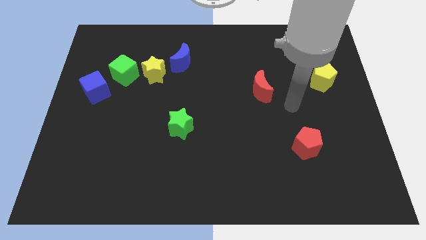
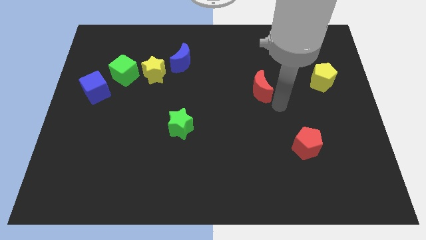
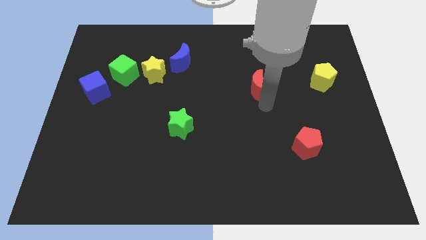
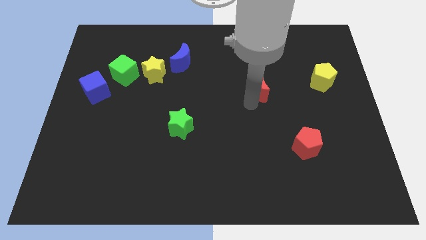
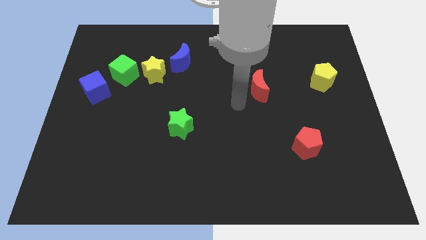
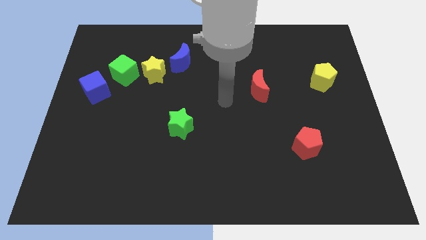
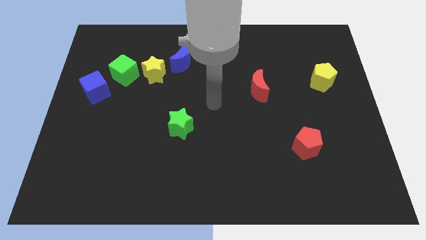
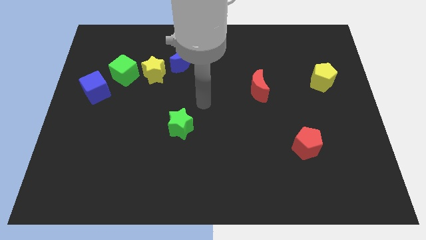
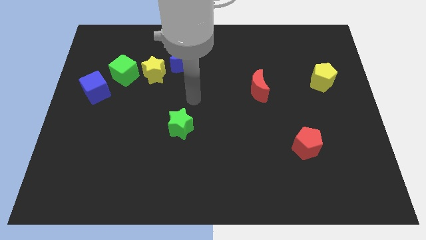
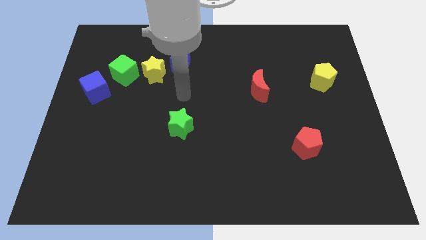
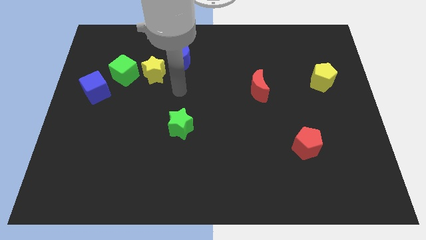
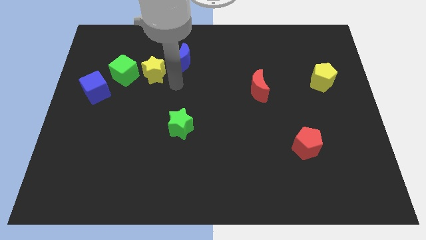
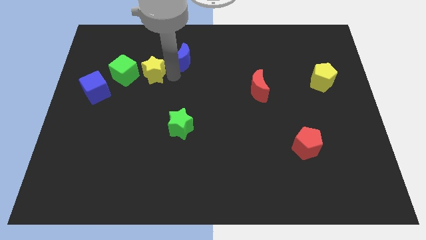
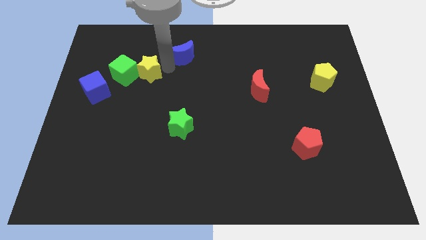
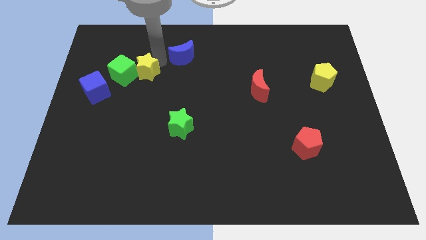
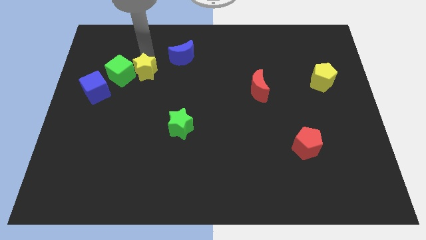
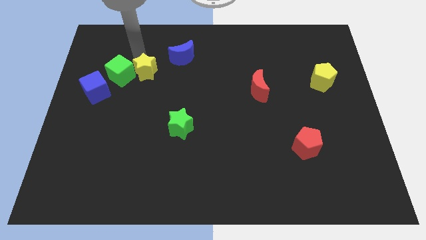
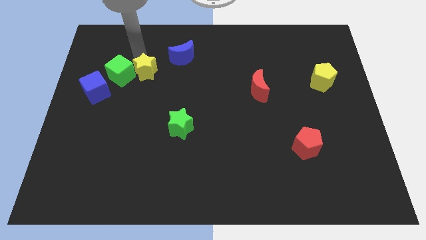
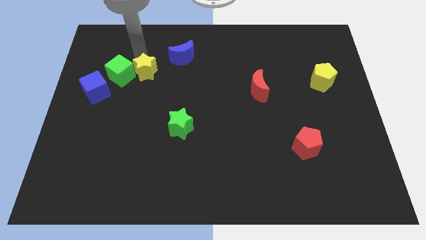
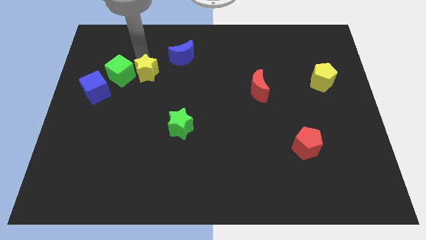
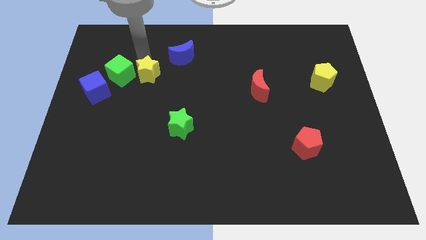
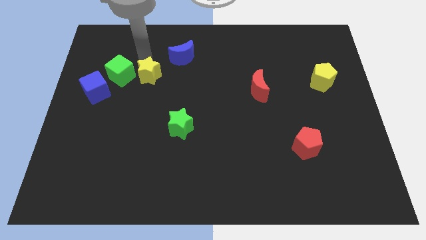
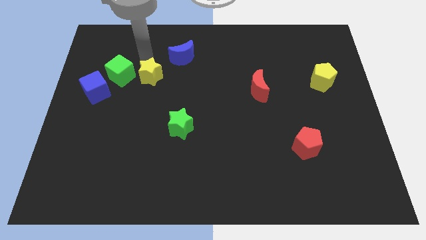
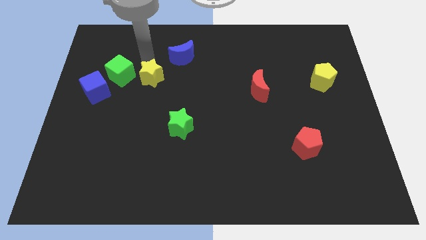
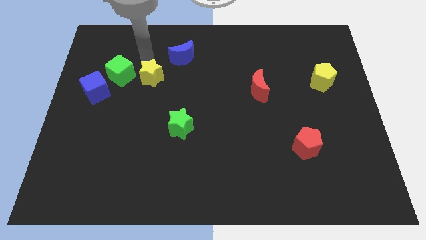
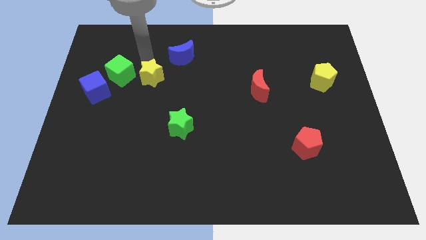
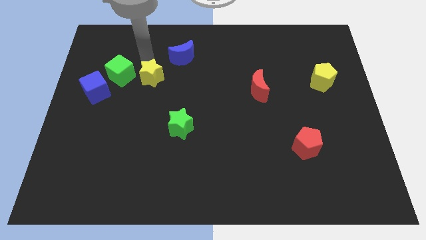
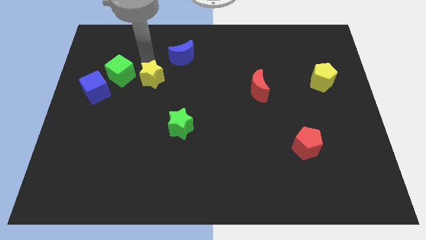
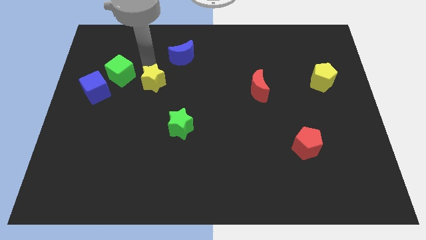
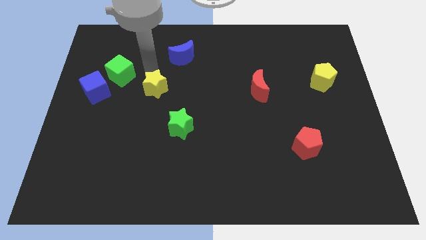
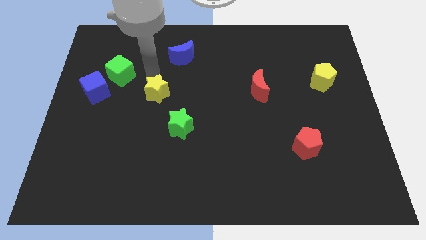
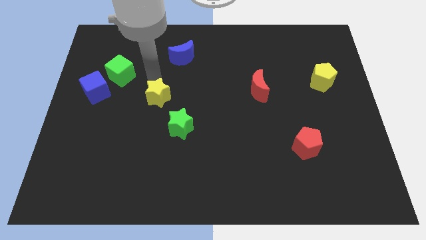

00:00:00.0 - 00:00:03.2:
pull the yellow star apart from the green cube and blue moon

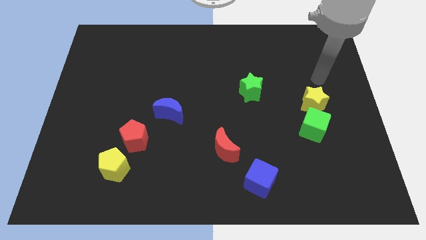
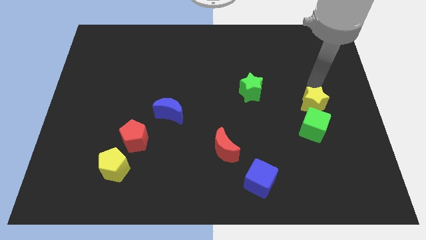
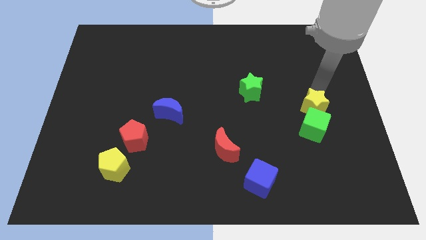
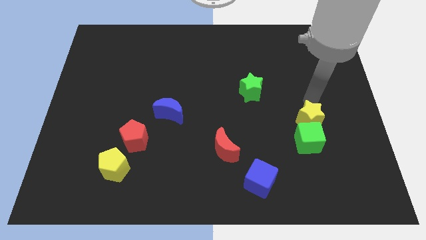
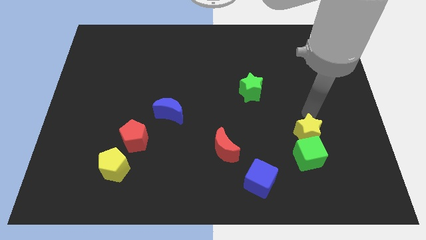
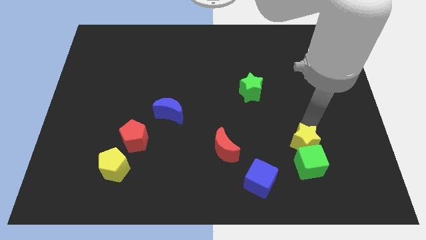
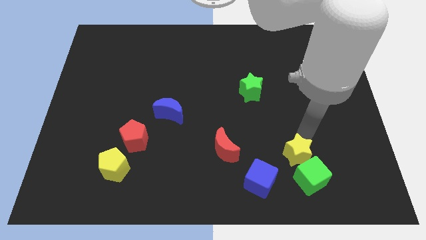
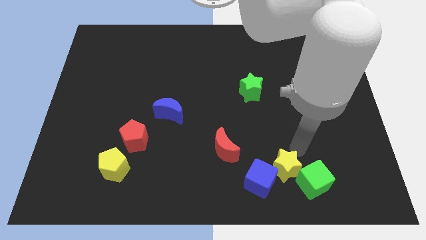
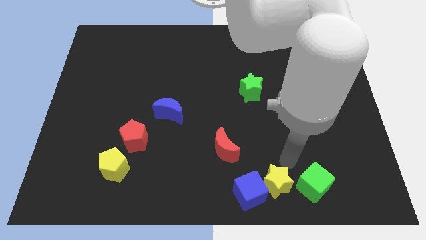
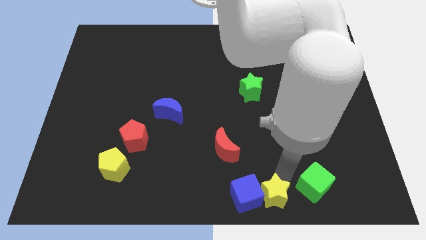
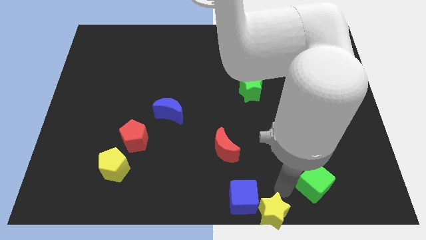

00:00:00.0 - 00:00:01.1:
move the green cube away from the yellow star

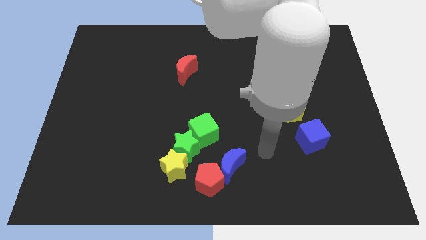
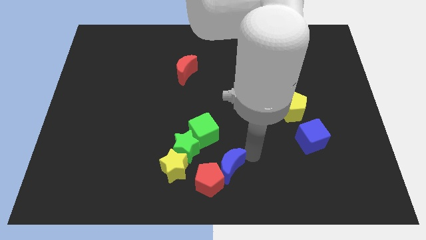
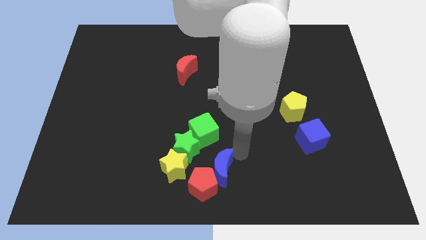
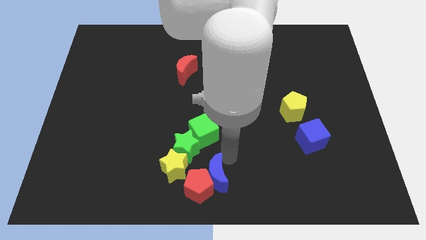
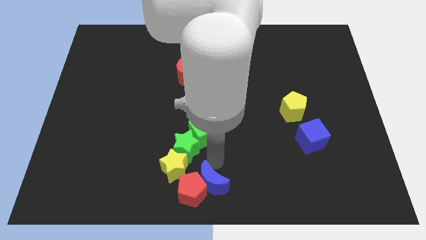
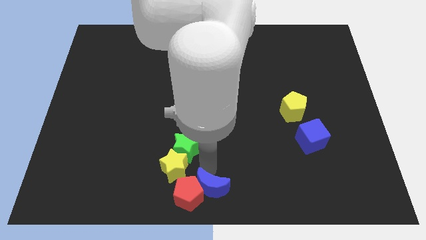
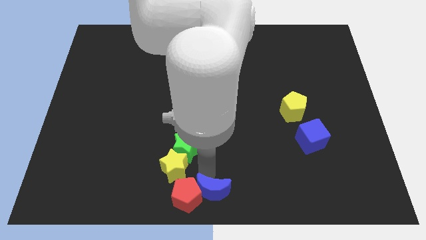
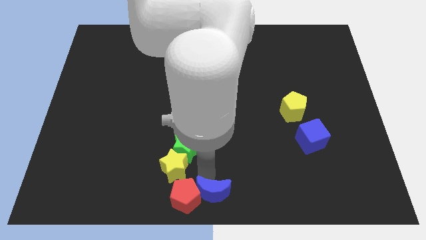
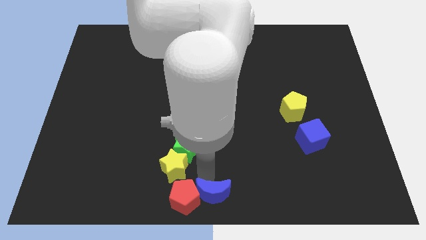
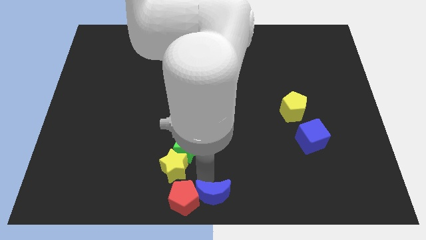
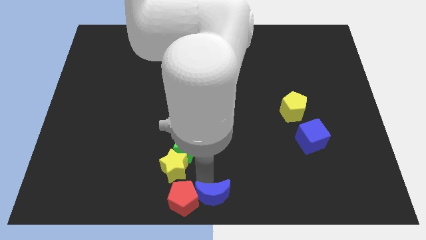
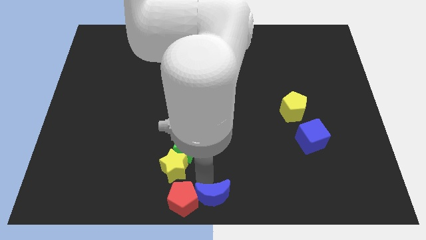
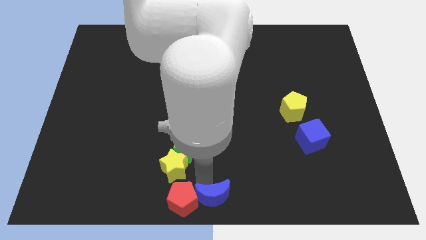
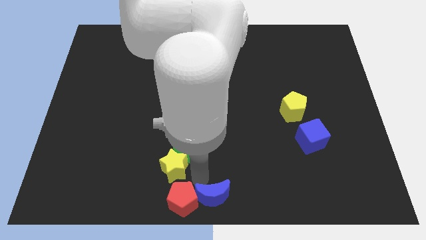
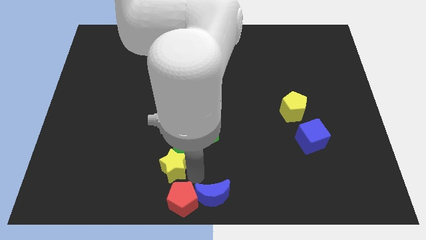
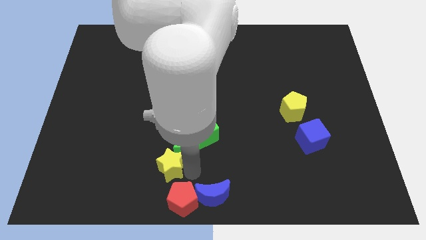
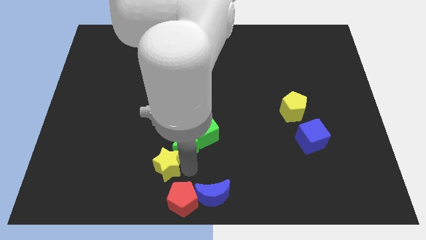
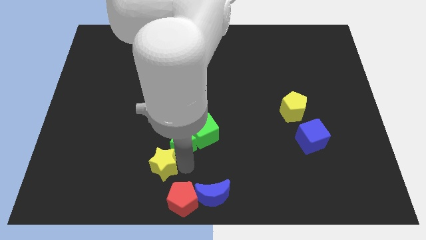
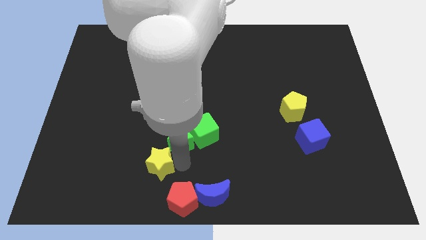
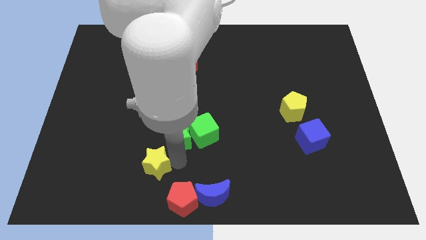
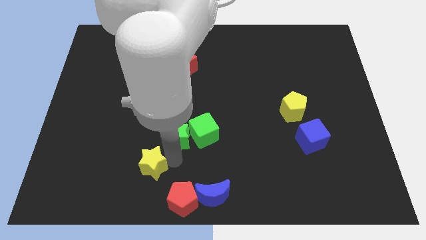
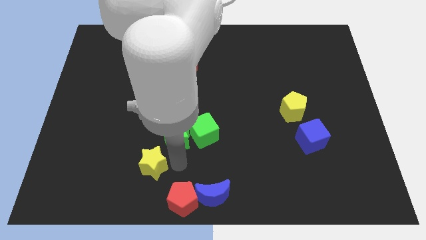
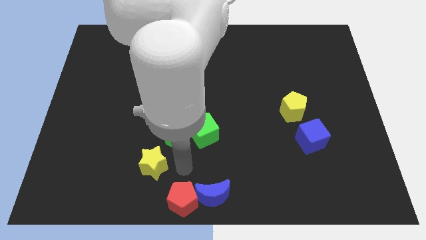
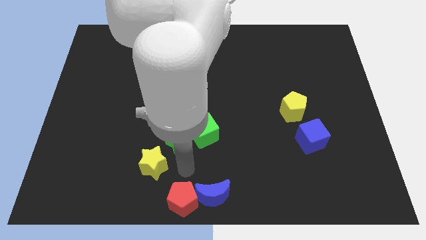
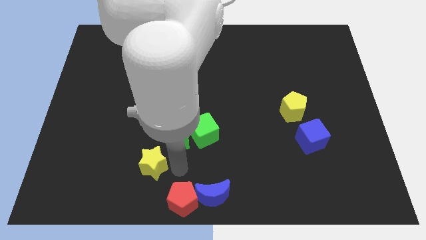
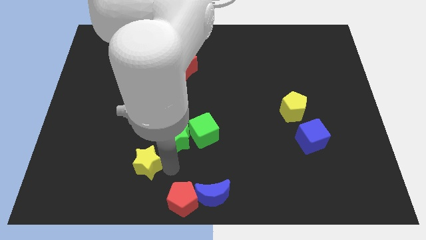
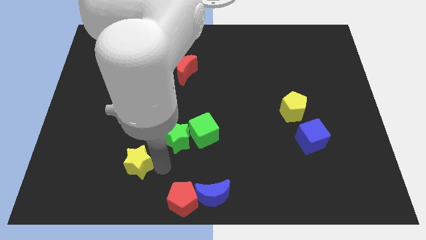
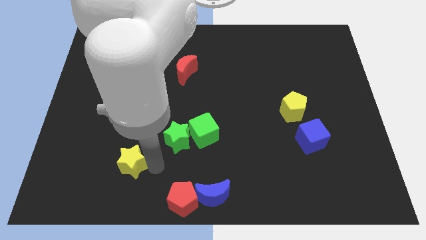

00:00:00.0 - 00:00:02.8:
move the yellow star away from the green star and red pentagon

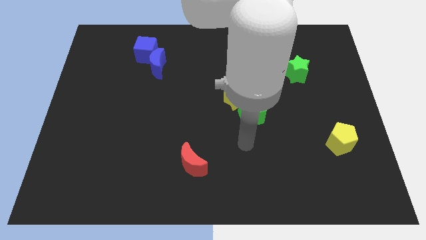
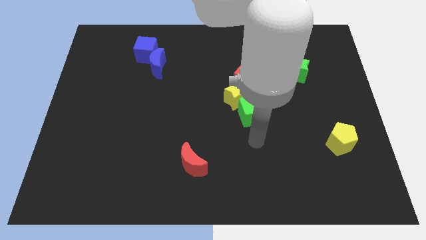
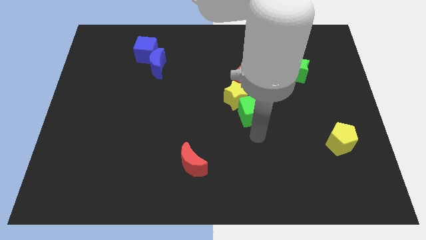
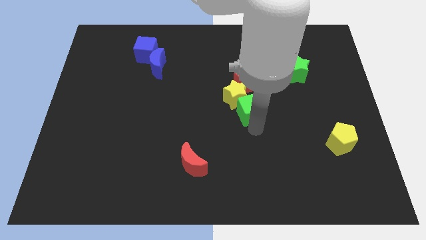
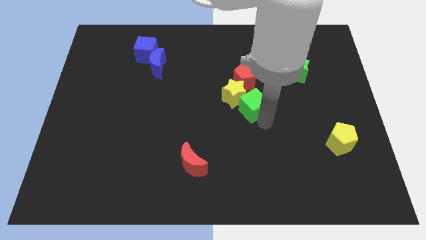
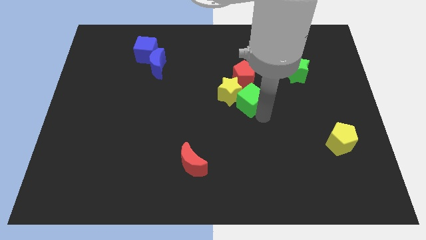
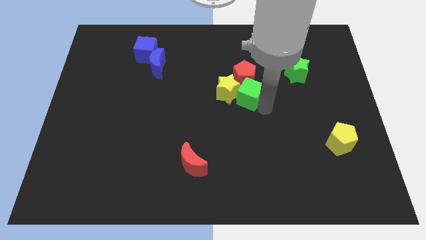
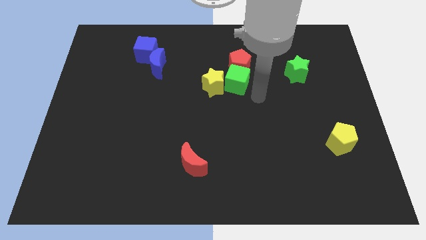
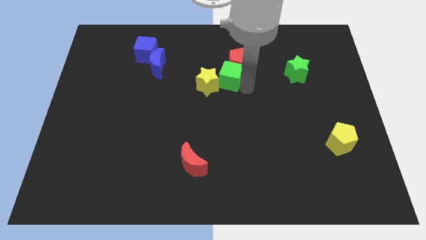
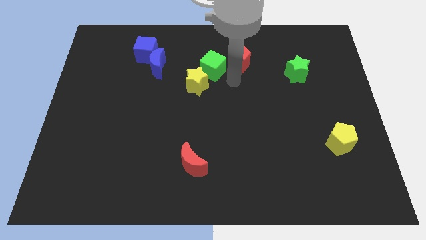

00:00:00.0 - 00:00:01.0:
pull the yellow star apart from the red pentagon and green cube

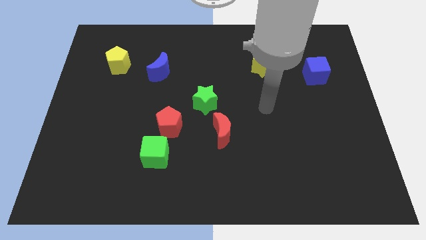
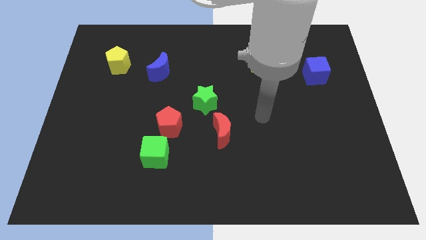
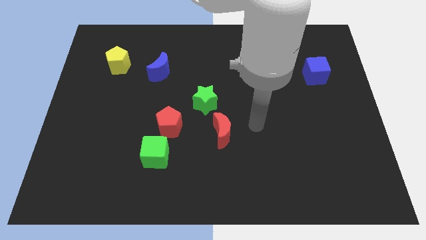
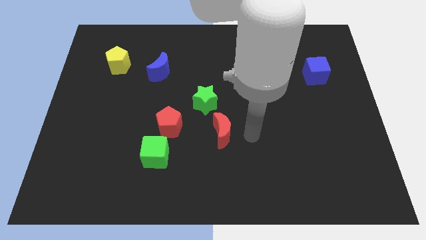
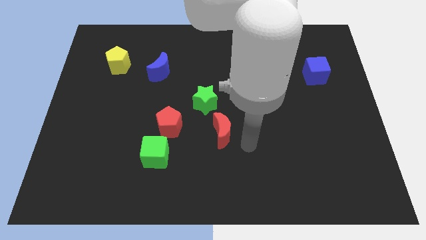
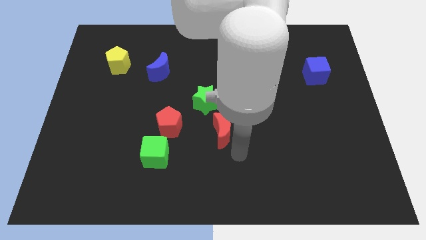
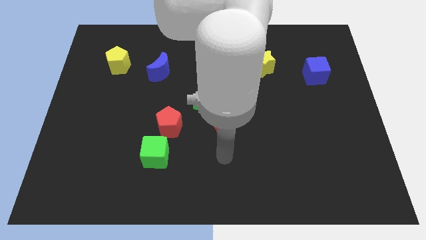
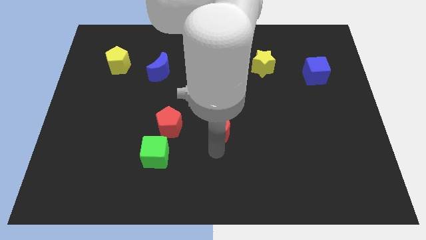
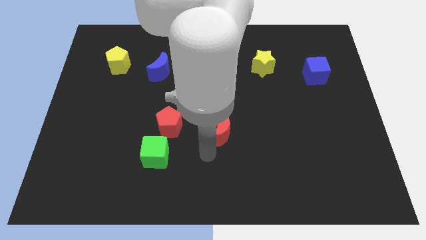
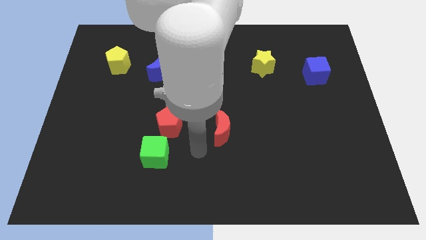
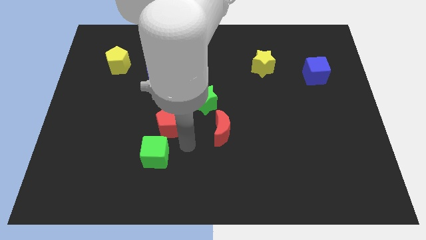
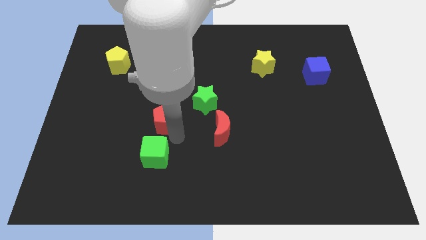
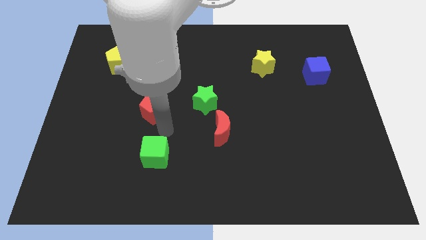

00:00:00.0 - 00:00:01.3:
move the green cube away from the red pentagon
